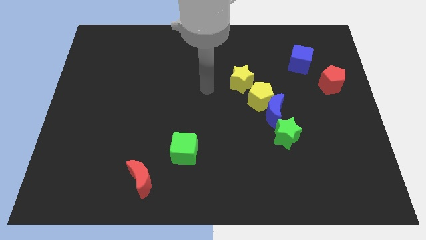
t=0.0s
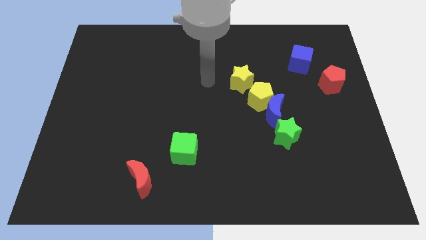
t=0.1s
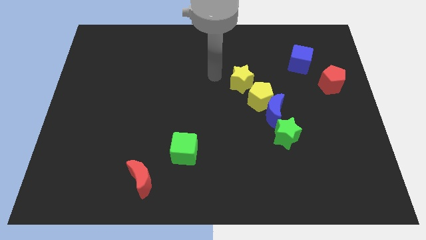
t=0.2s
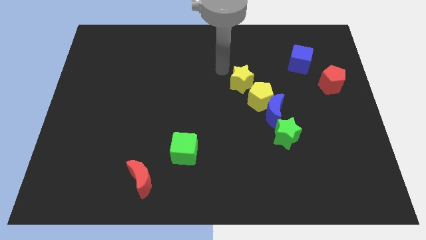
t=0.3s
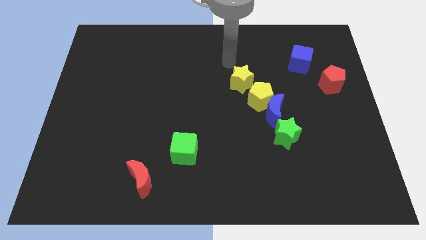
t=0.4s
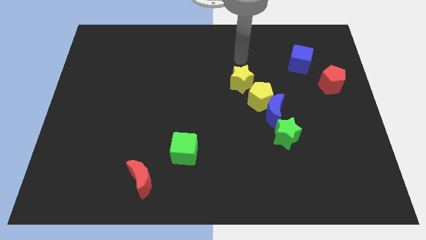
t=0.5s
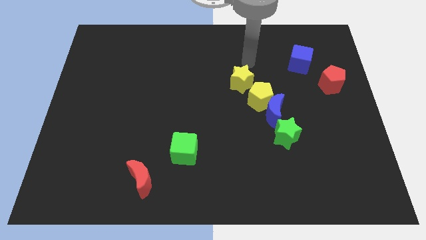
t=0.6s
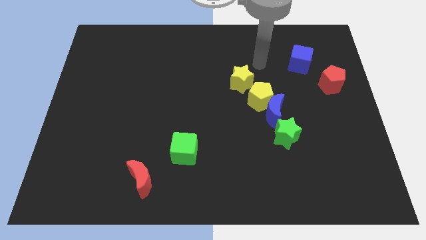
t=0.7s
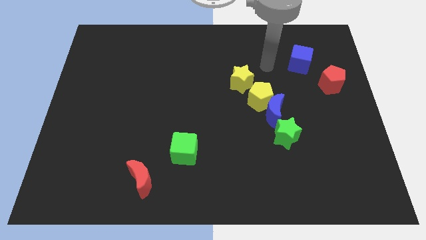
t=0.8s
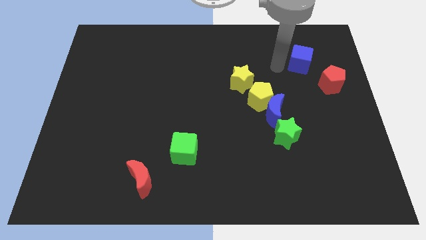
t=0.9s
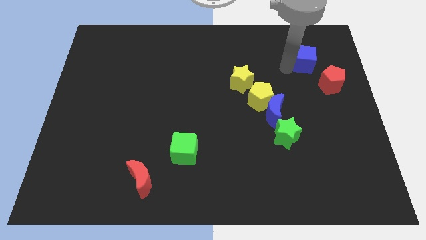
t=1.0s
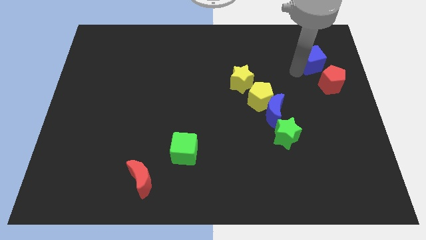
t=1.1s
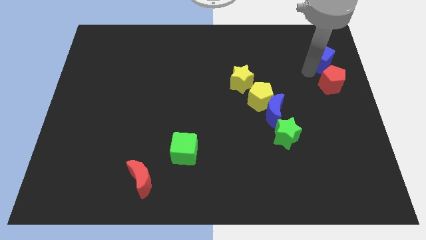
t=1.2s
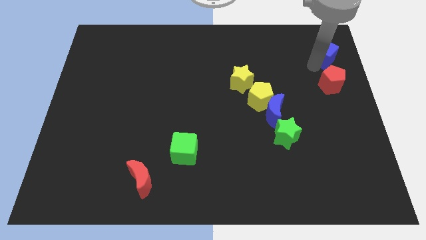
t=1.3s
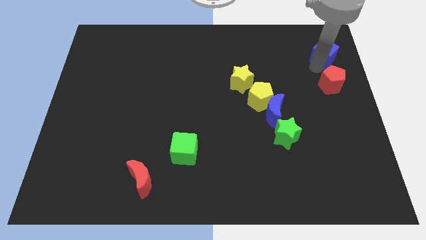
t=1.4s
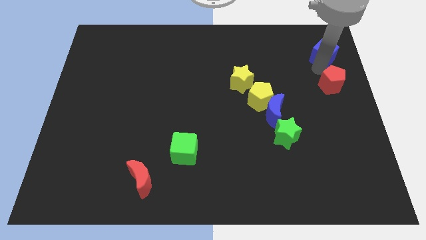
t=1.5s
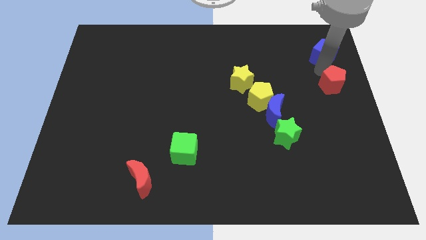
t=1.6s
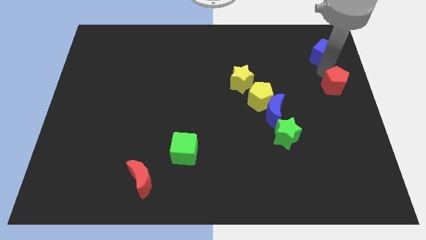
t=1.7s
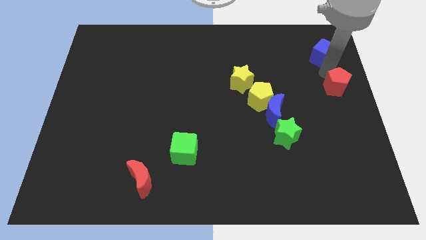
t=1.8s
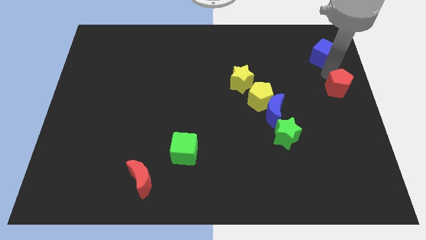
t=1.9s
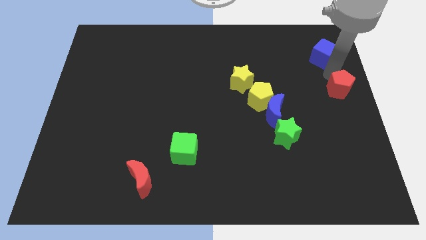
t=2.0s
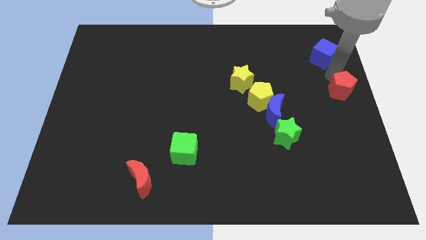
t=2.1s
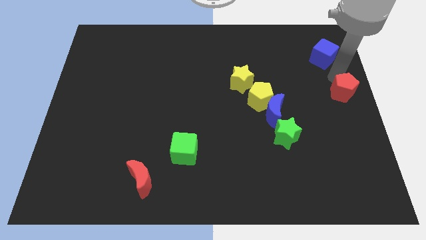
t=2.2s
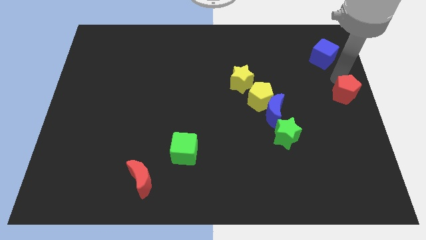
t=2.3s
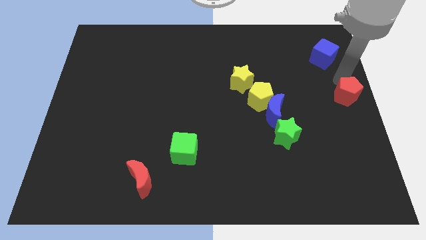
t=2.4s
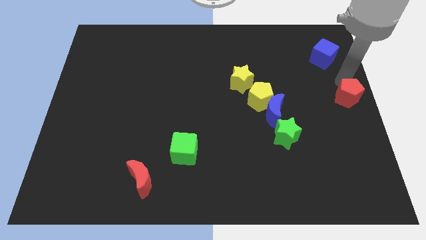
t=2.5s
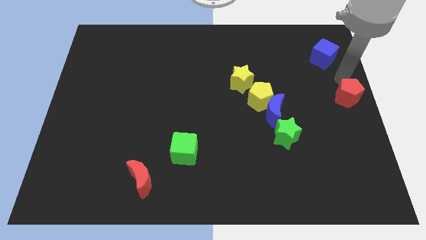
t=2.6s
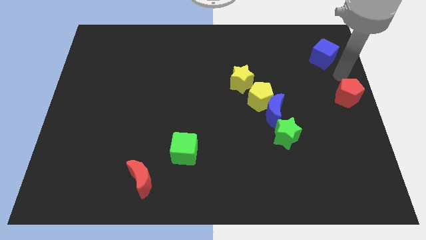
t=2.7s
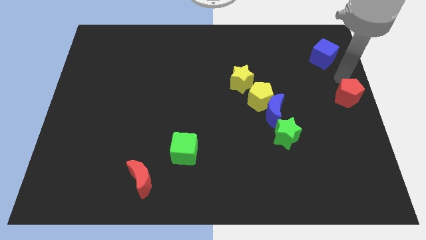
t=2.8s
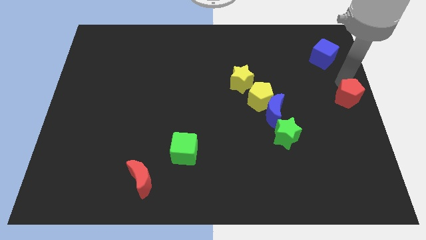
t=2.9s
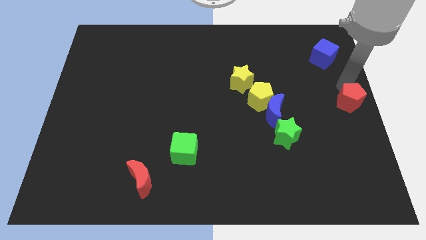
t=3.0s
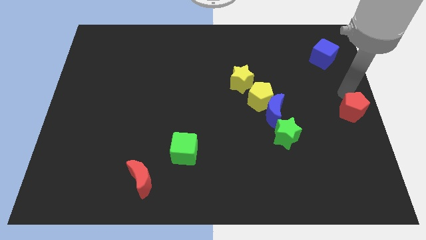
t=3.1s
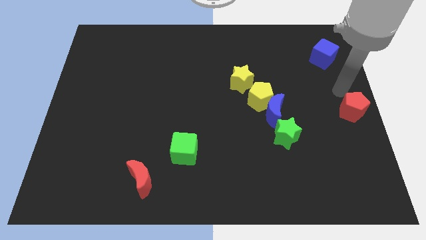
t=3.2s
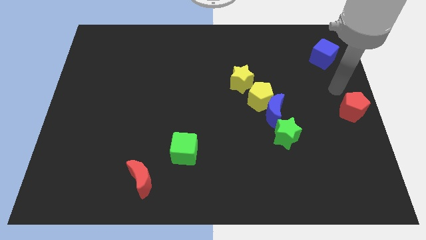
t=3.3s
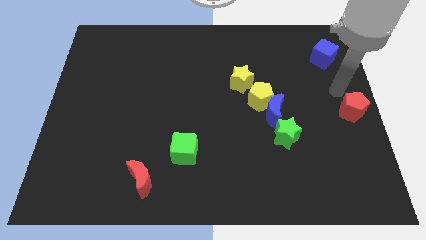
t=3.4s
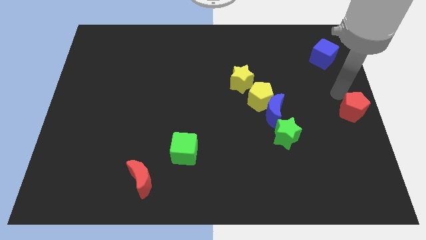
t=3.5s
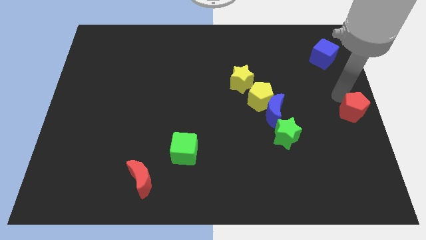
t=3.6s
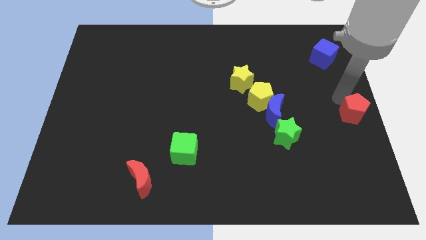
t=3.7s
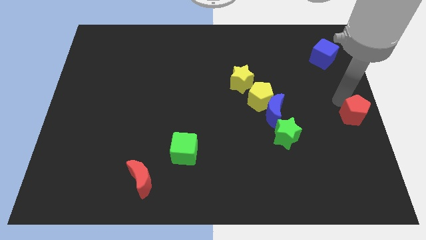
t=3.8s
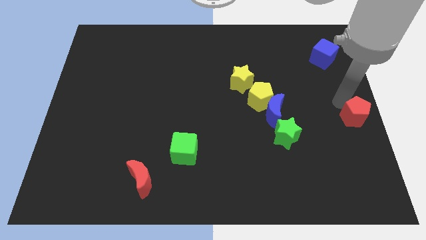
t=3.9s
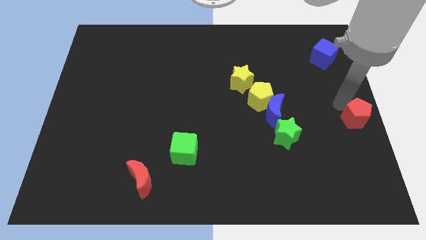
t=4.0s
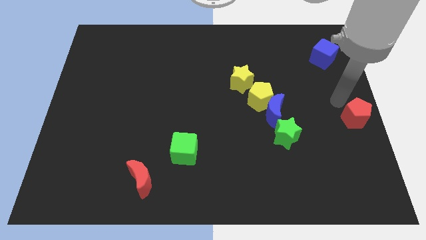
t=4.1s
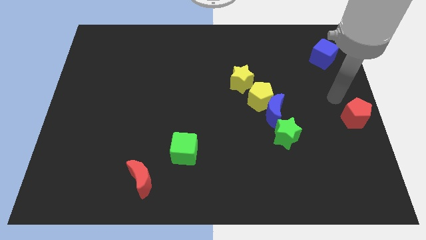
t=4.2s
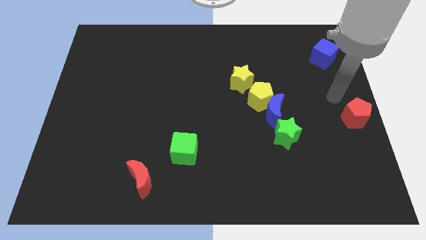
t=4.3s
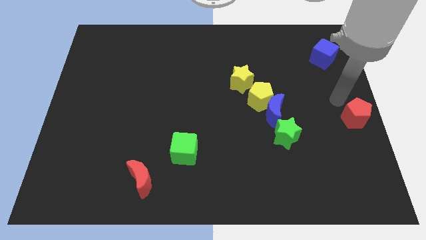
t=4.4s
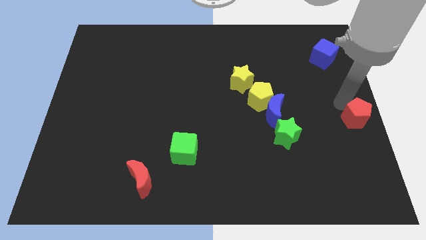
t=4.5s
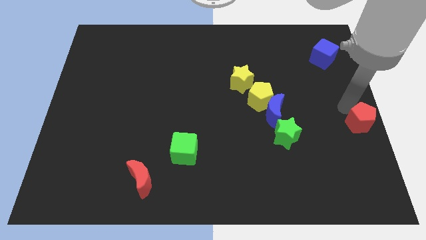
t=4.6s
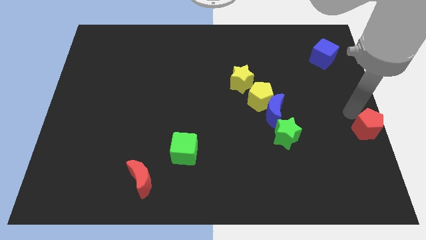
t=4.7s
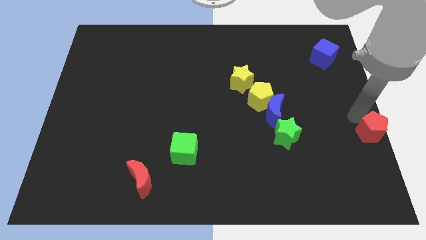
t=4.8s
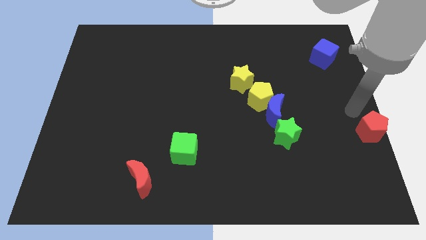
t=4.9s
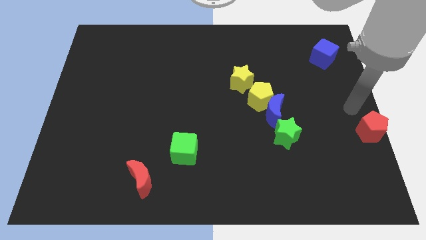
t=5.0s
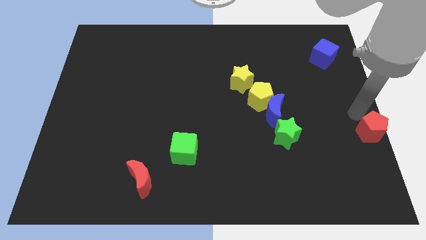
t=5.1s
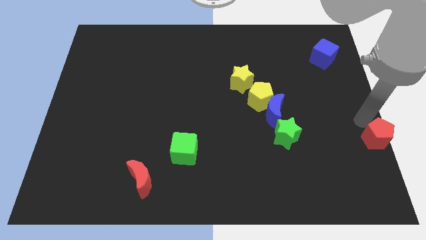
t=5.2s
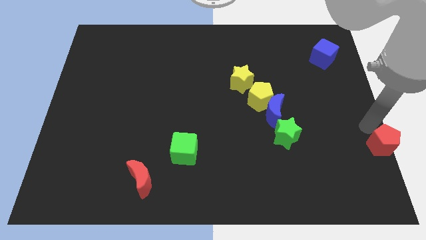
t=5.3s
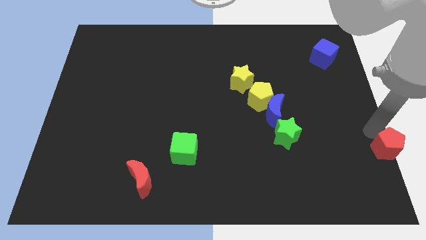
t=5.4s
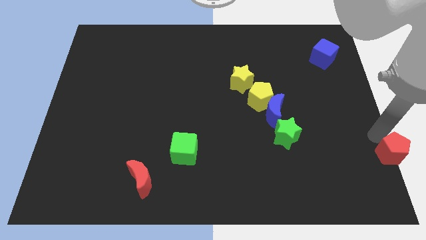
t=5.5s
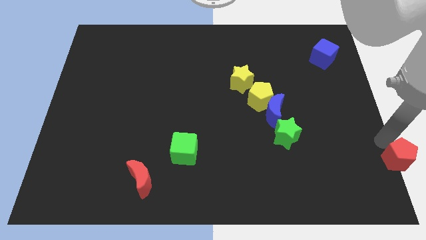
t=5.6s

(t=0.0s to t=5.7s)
put the red pentagon to the bottom right

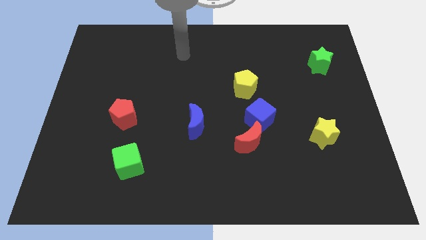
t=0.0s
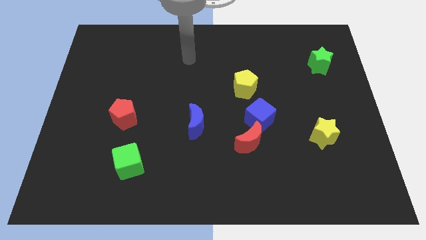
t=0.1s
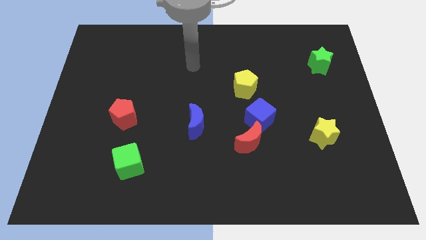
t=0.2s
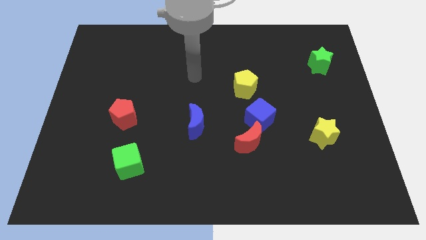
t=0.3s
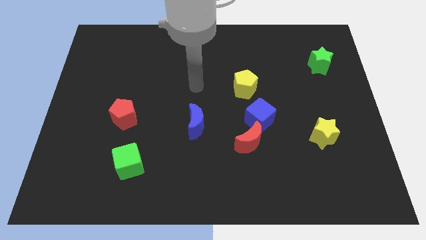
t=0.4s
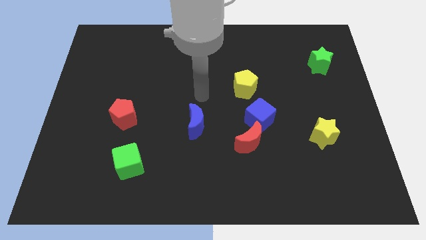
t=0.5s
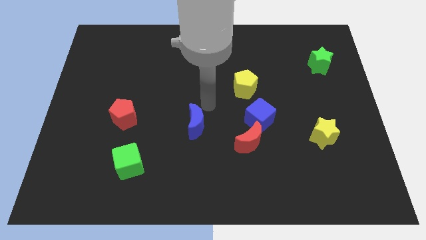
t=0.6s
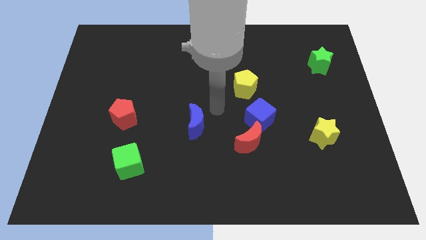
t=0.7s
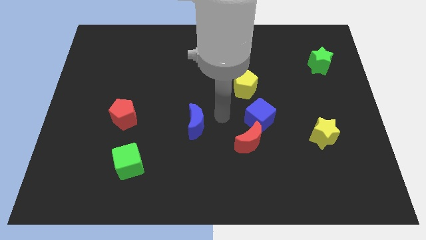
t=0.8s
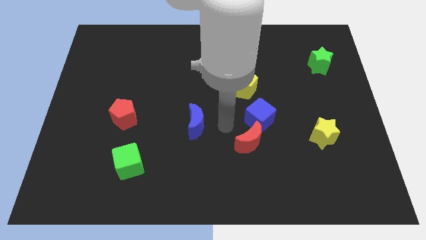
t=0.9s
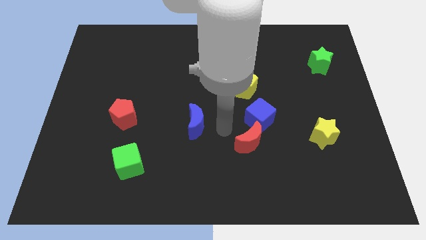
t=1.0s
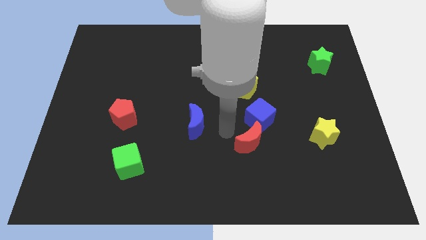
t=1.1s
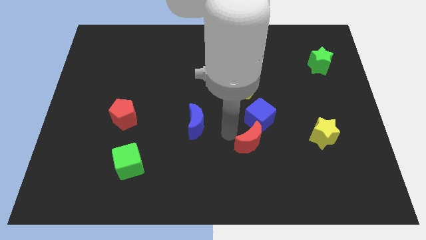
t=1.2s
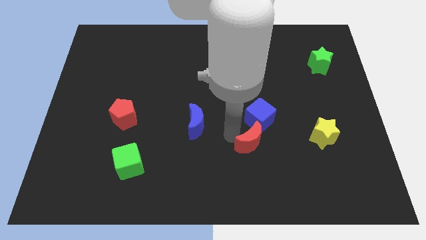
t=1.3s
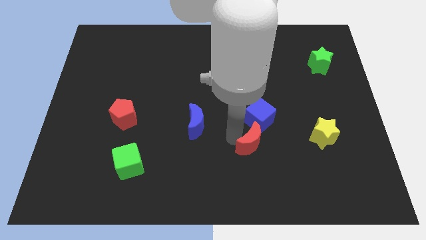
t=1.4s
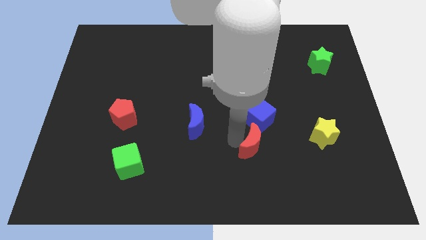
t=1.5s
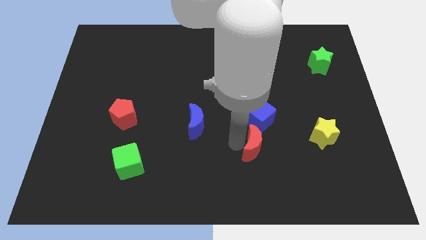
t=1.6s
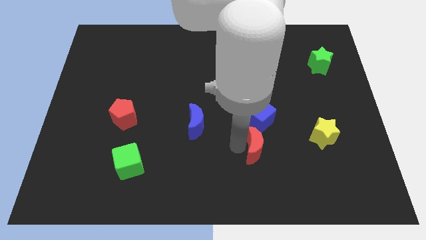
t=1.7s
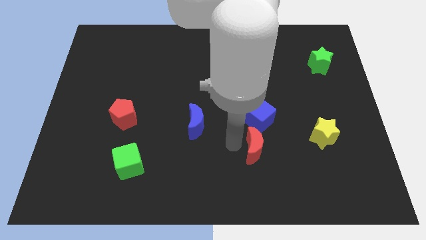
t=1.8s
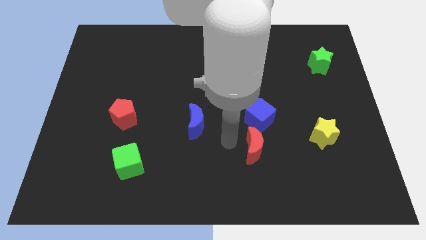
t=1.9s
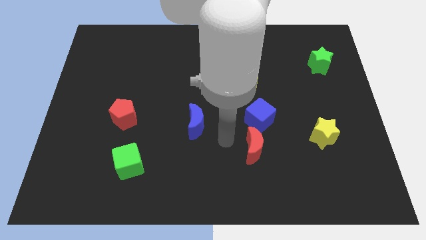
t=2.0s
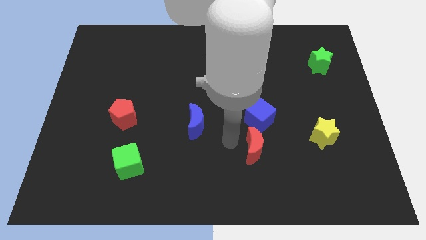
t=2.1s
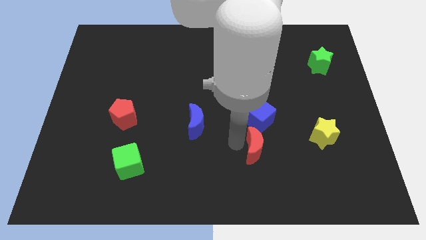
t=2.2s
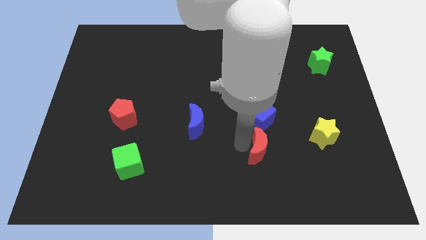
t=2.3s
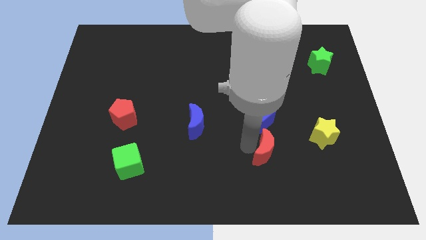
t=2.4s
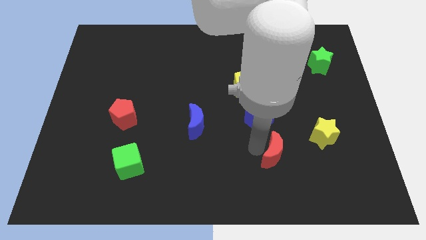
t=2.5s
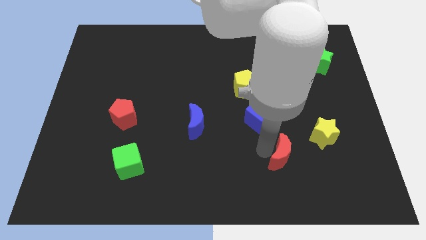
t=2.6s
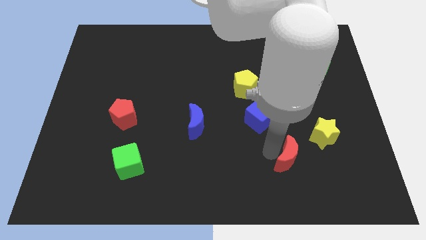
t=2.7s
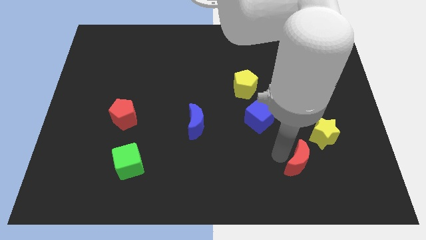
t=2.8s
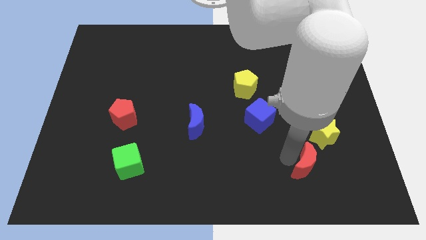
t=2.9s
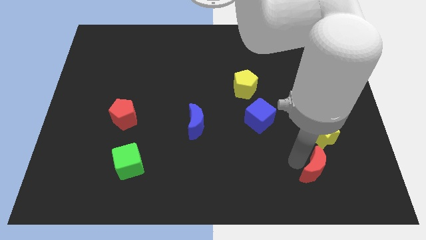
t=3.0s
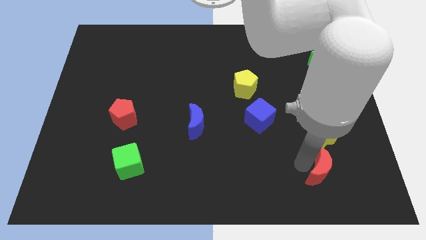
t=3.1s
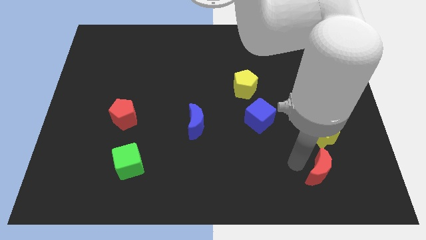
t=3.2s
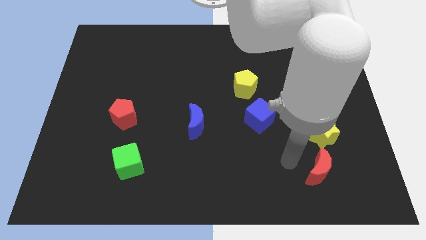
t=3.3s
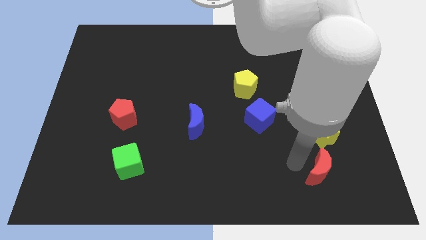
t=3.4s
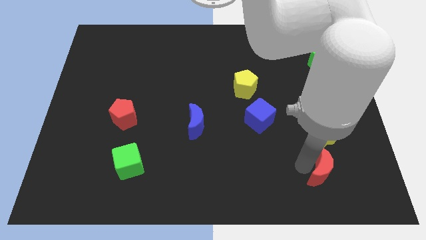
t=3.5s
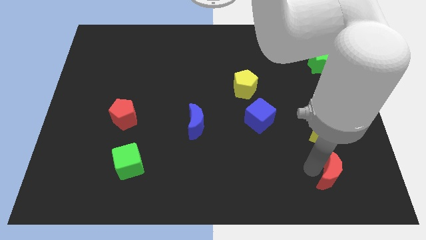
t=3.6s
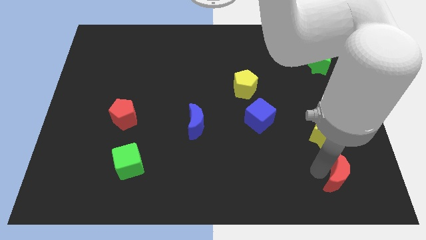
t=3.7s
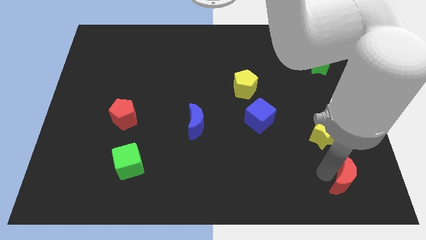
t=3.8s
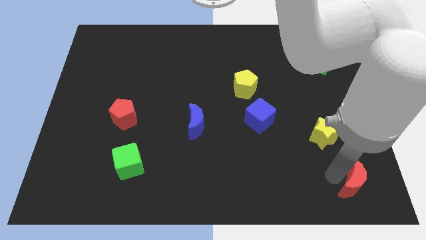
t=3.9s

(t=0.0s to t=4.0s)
slide the red moon to the bottom right corner
